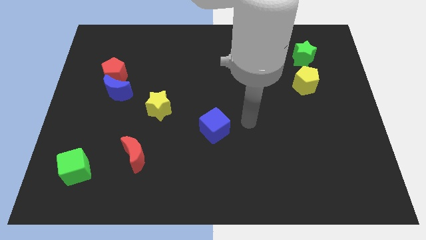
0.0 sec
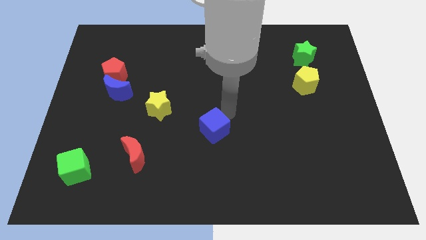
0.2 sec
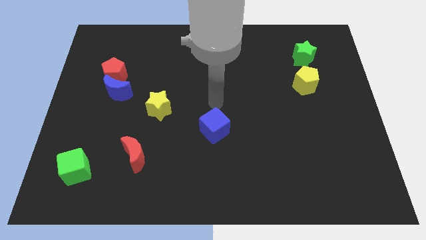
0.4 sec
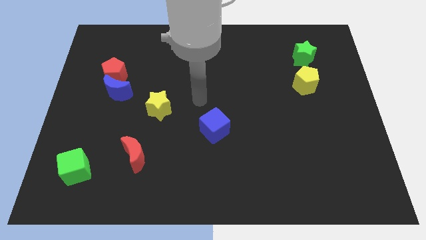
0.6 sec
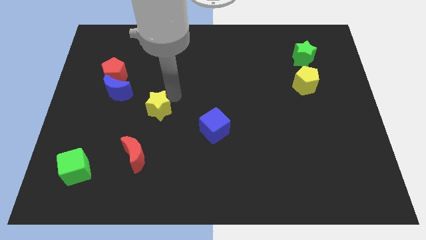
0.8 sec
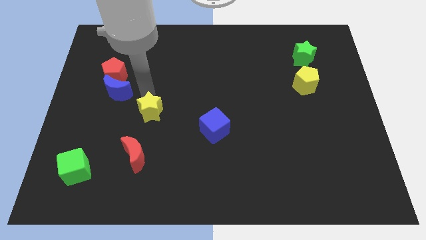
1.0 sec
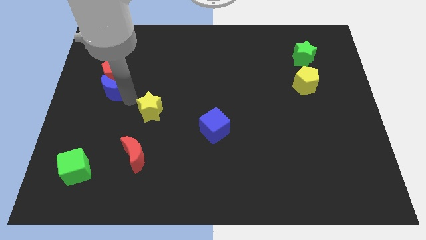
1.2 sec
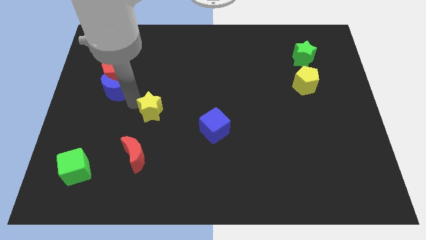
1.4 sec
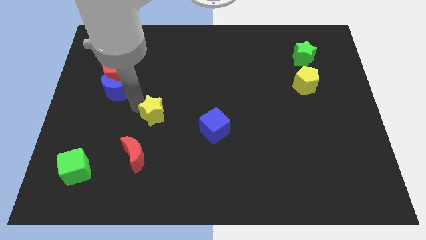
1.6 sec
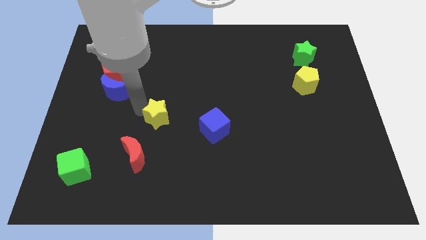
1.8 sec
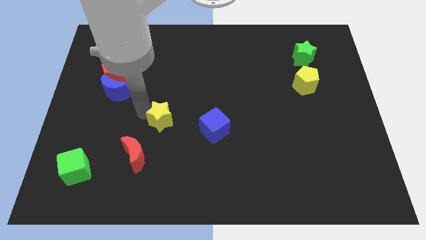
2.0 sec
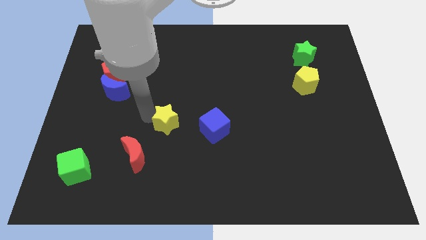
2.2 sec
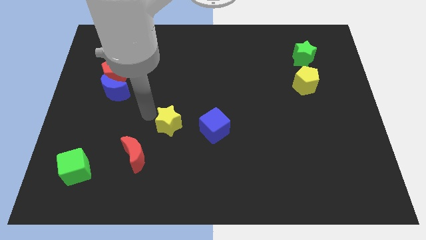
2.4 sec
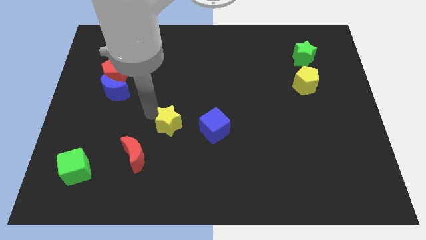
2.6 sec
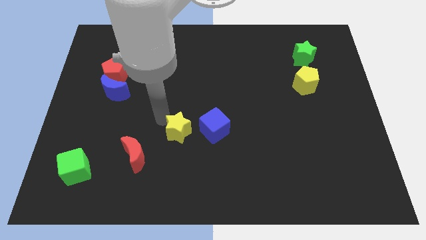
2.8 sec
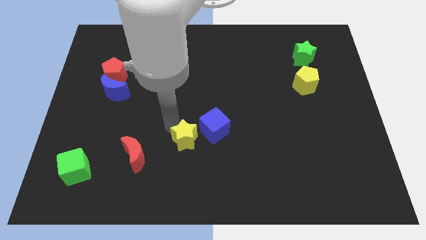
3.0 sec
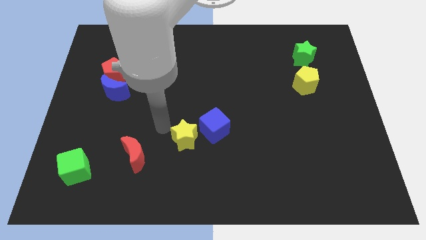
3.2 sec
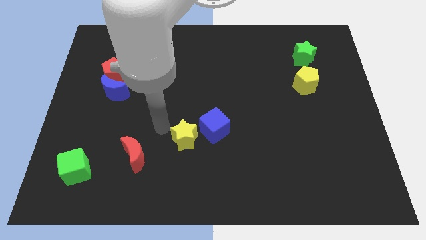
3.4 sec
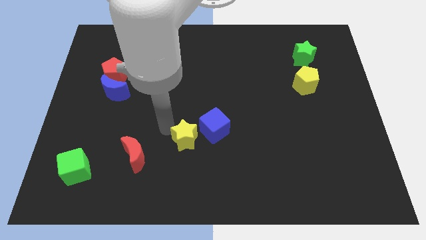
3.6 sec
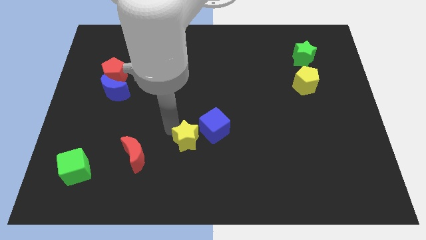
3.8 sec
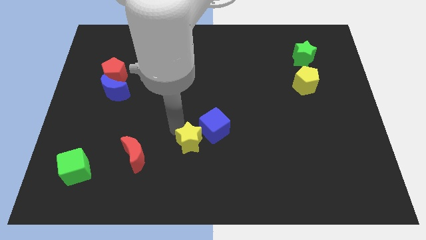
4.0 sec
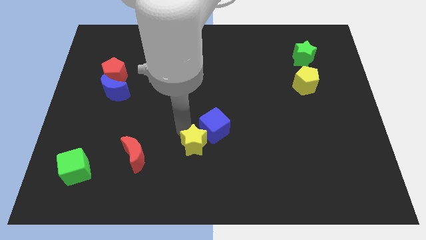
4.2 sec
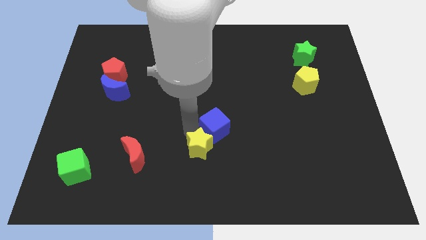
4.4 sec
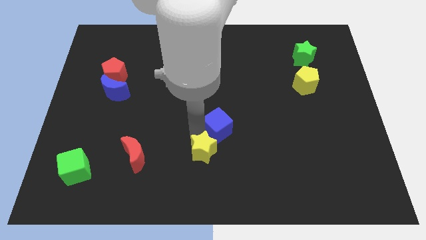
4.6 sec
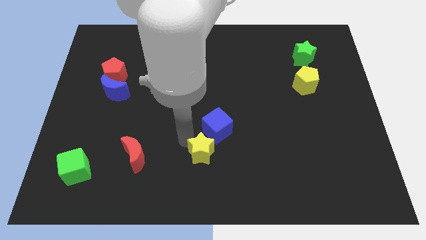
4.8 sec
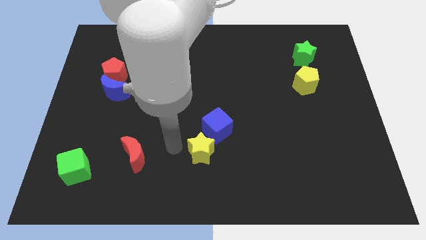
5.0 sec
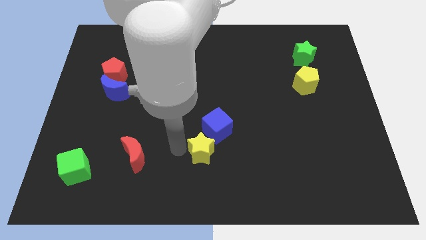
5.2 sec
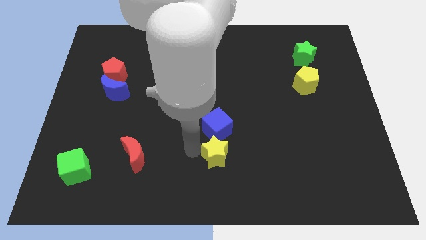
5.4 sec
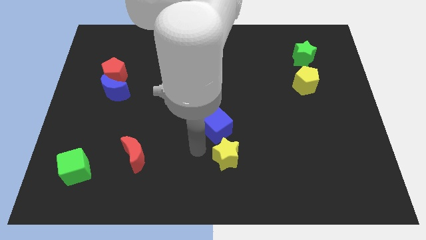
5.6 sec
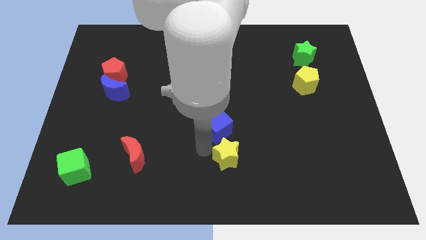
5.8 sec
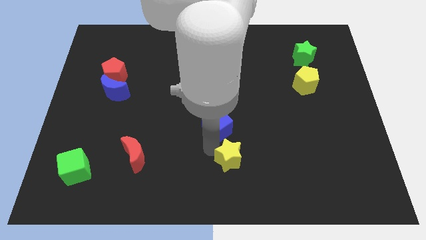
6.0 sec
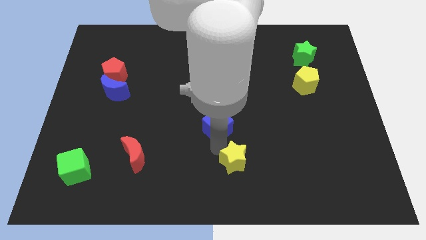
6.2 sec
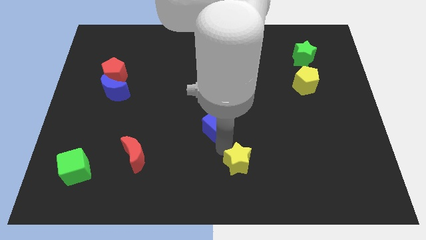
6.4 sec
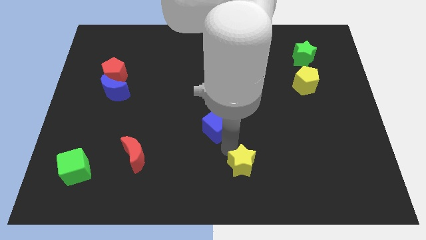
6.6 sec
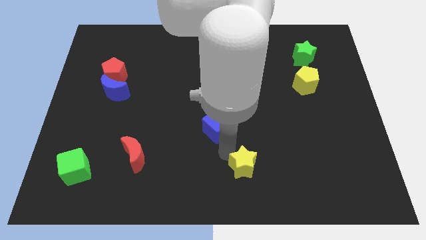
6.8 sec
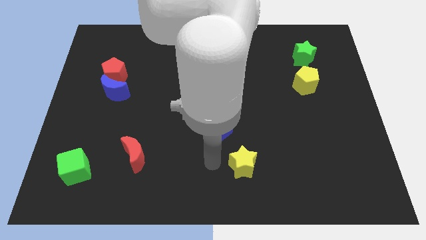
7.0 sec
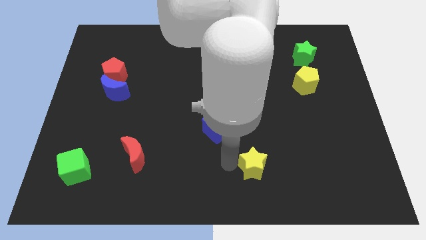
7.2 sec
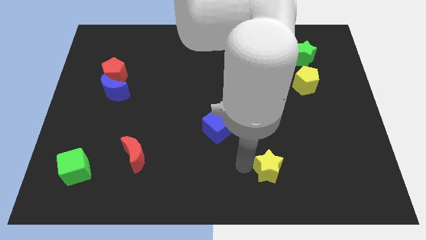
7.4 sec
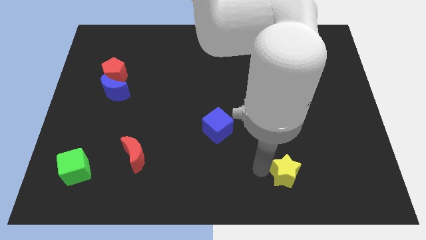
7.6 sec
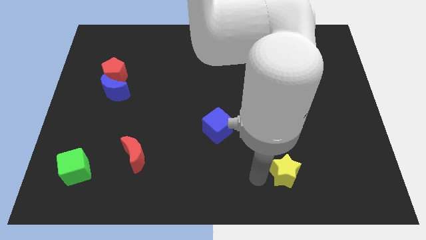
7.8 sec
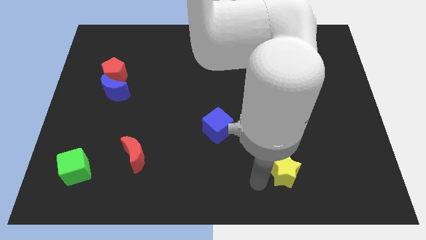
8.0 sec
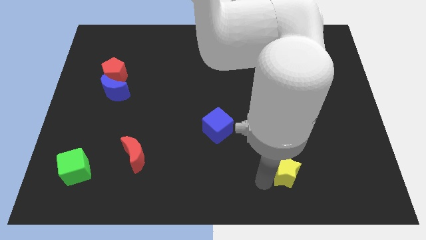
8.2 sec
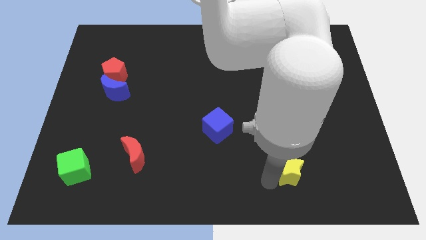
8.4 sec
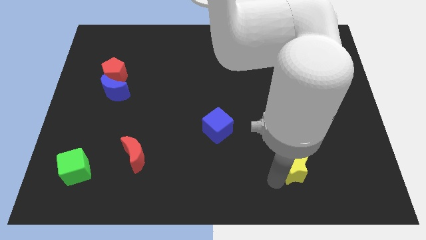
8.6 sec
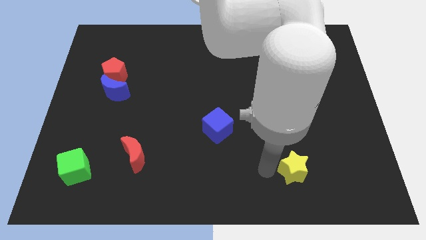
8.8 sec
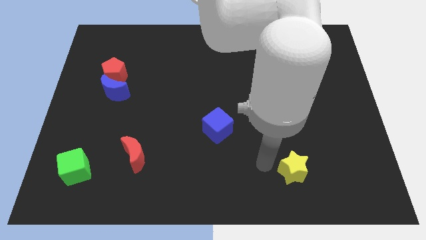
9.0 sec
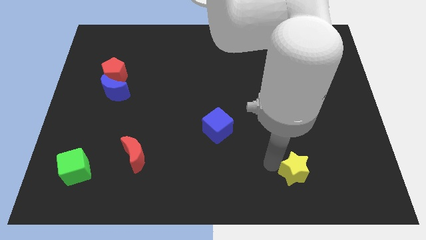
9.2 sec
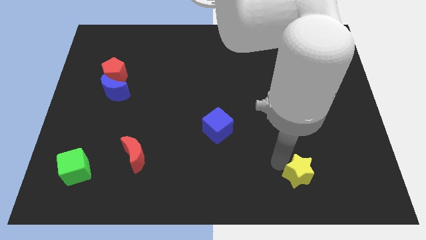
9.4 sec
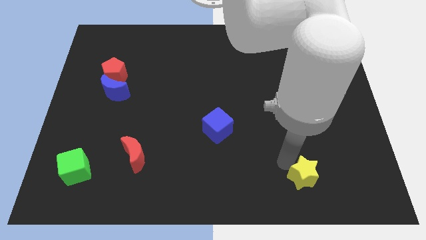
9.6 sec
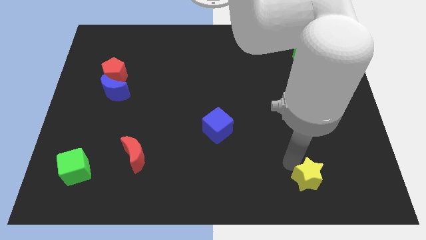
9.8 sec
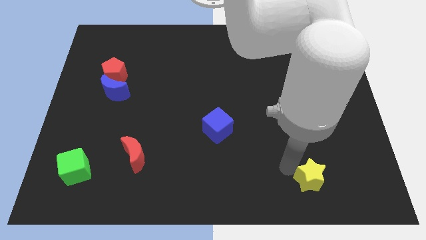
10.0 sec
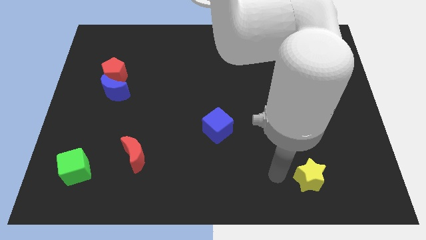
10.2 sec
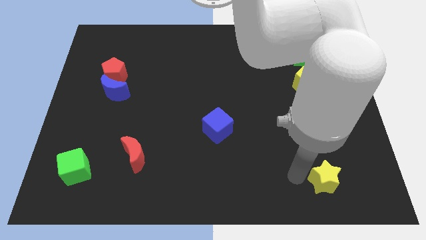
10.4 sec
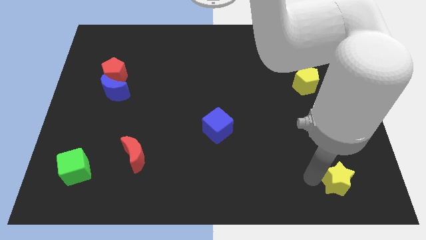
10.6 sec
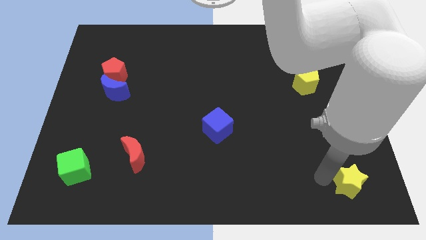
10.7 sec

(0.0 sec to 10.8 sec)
slide the yellow star to the lower right corner
